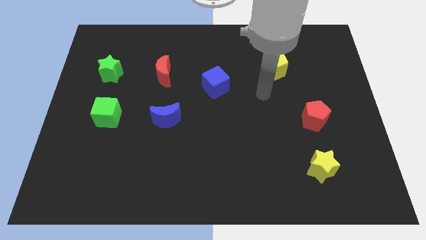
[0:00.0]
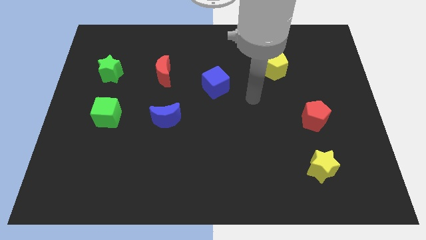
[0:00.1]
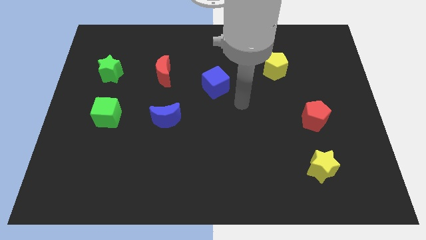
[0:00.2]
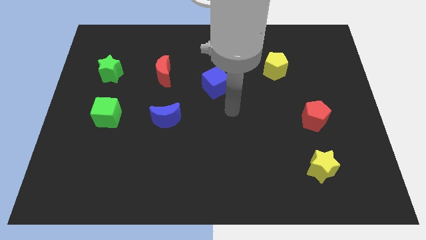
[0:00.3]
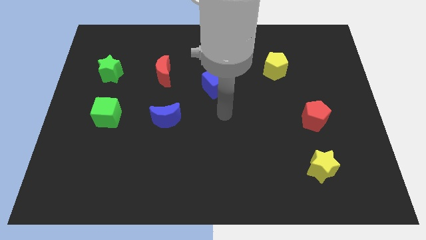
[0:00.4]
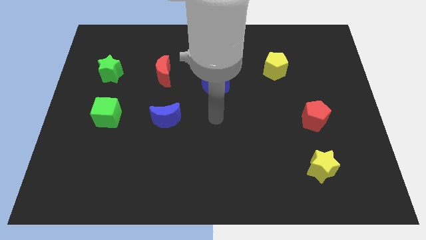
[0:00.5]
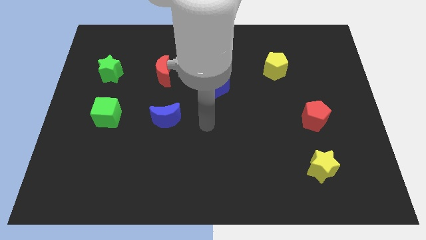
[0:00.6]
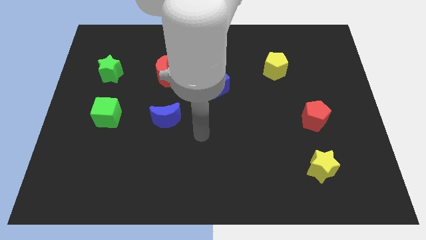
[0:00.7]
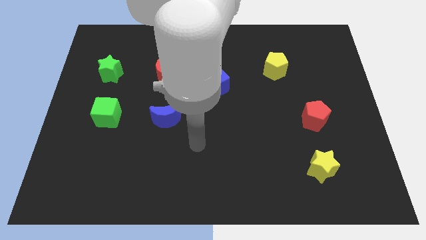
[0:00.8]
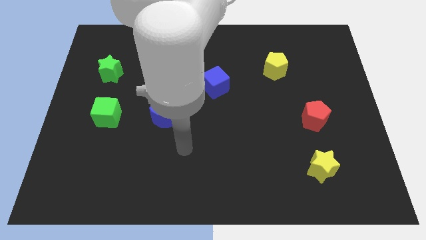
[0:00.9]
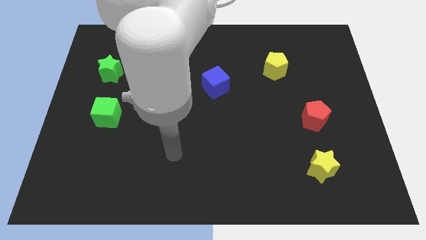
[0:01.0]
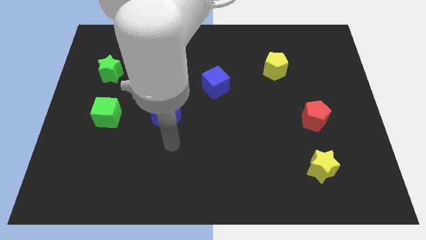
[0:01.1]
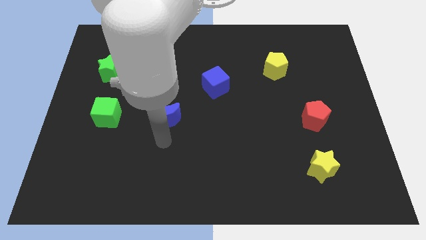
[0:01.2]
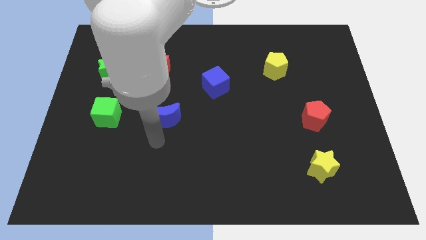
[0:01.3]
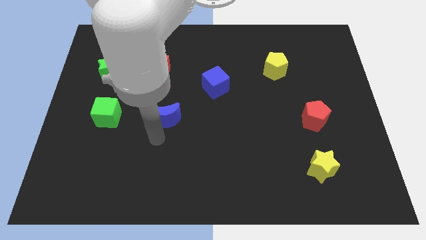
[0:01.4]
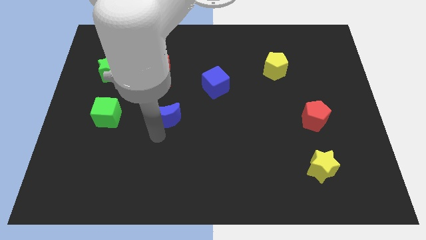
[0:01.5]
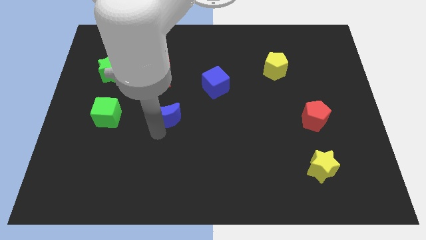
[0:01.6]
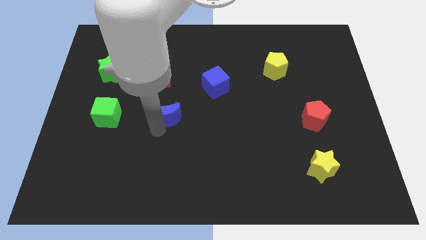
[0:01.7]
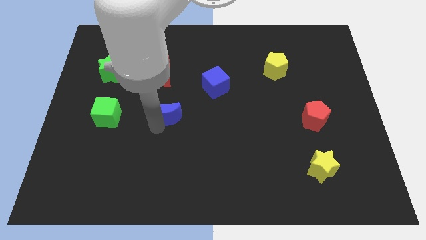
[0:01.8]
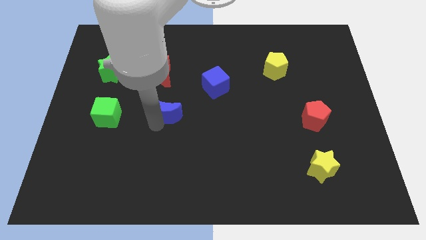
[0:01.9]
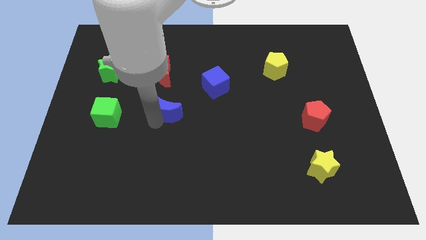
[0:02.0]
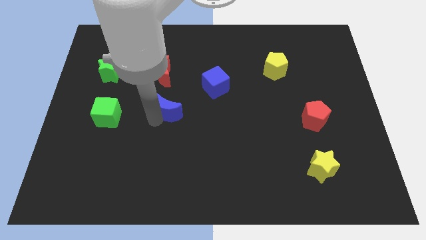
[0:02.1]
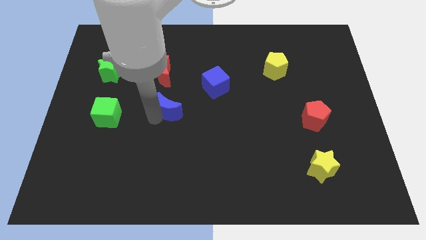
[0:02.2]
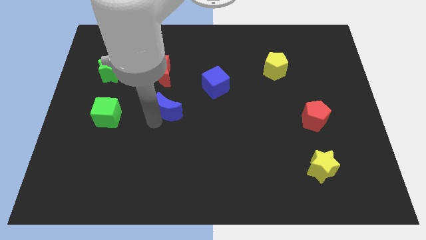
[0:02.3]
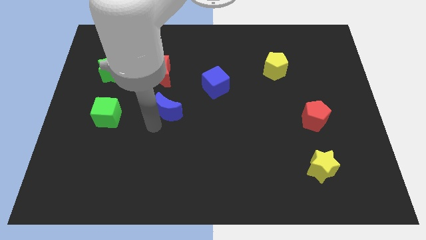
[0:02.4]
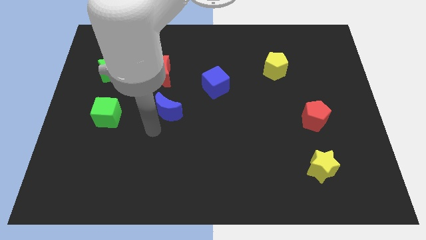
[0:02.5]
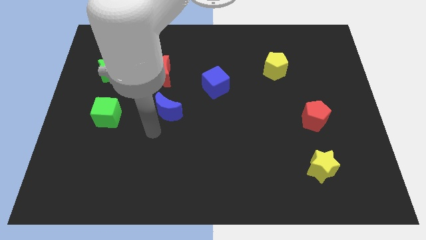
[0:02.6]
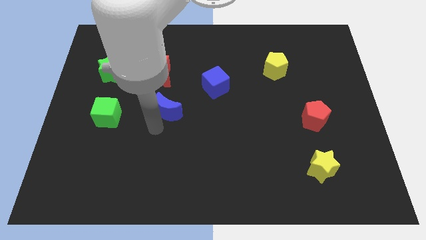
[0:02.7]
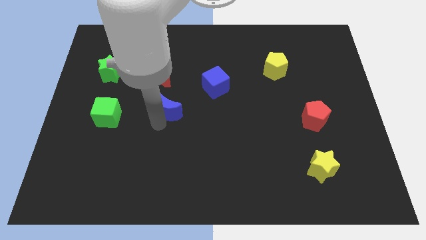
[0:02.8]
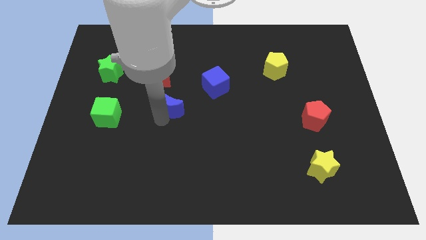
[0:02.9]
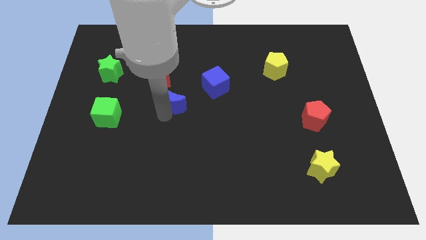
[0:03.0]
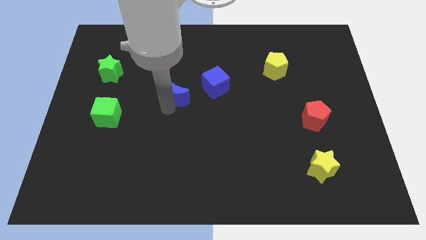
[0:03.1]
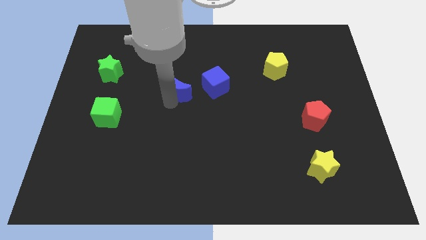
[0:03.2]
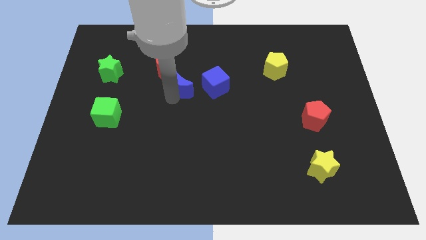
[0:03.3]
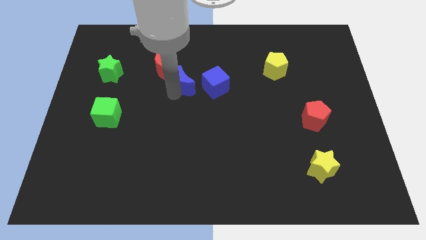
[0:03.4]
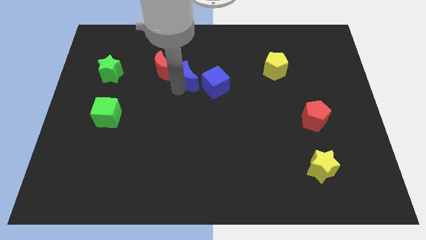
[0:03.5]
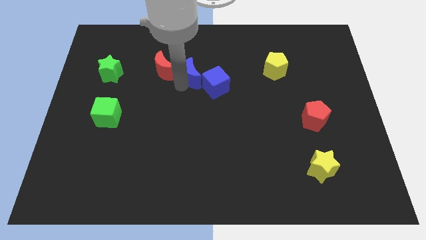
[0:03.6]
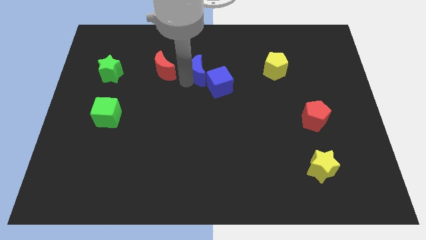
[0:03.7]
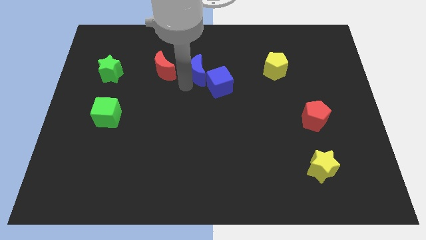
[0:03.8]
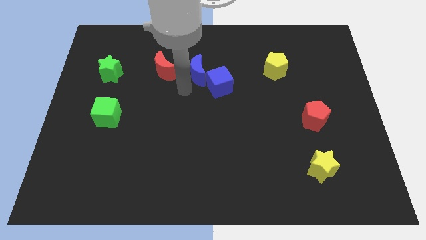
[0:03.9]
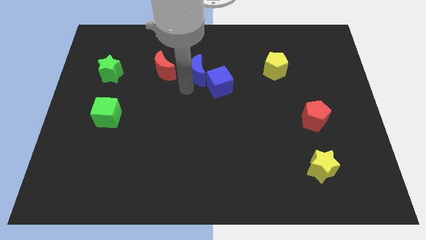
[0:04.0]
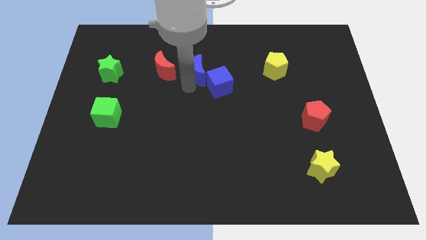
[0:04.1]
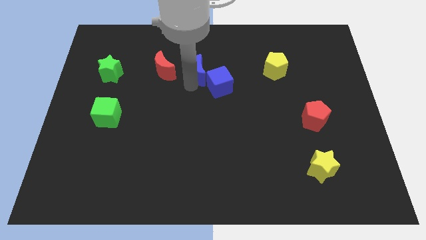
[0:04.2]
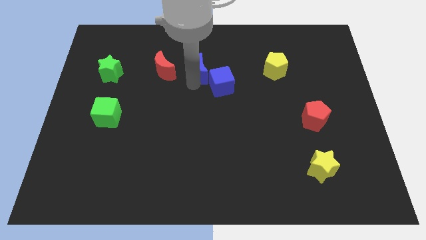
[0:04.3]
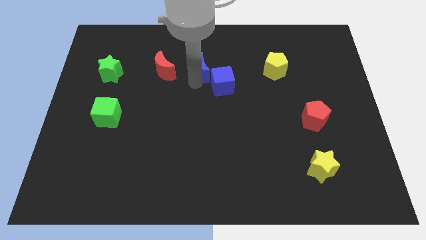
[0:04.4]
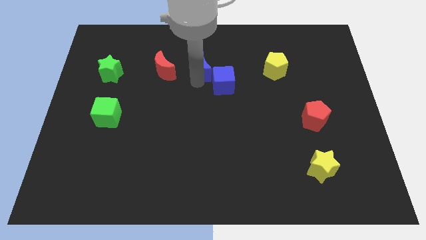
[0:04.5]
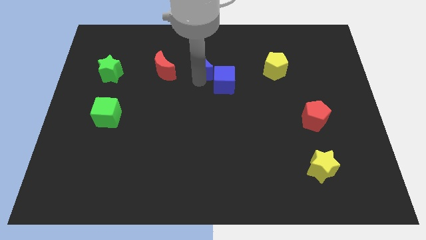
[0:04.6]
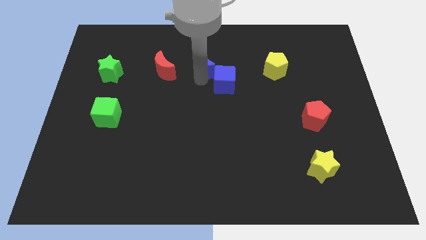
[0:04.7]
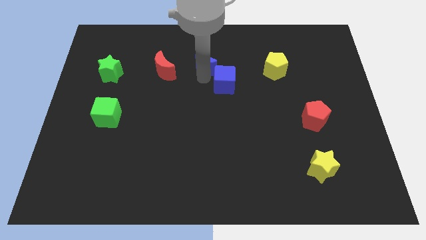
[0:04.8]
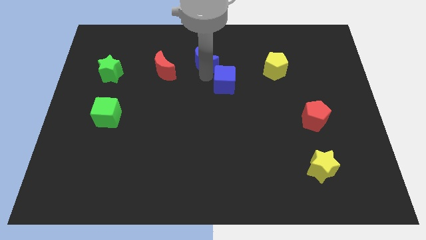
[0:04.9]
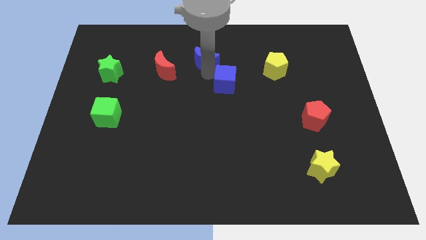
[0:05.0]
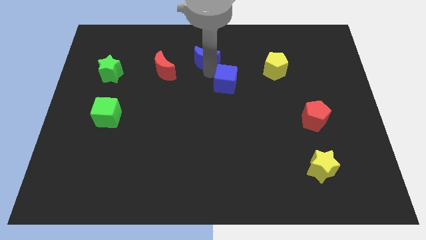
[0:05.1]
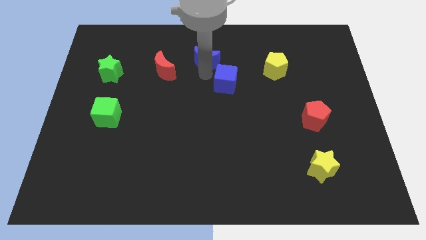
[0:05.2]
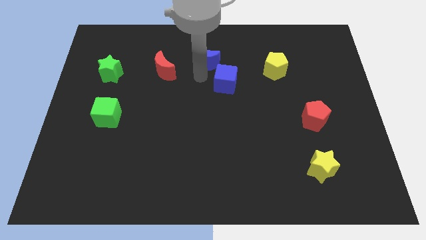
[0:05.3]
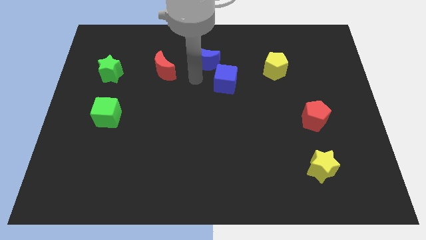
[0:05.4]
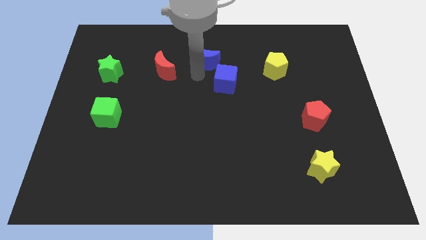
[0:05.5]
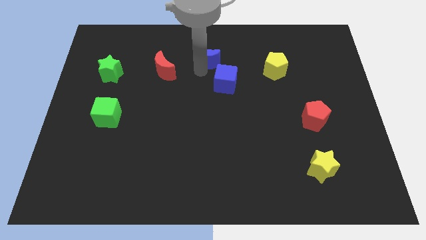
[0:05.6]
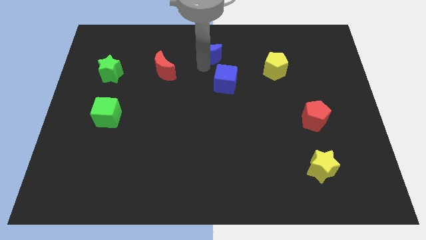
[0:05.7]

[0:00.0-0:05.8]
slide the blue moon to the towards your base

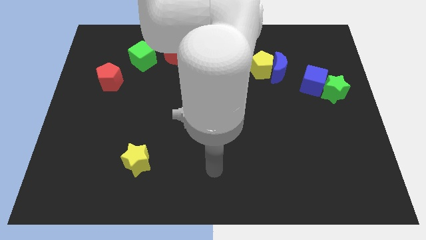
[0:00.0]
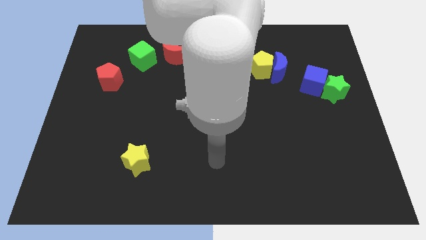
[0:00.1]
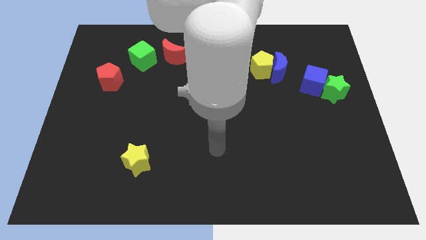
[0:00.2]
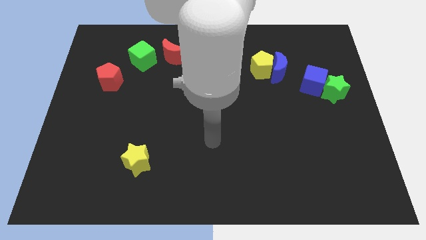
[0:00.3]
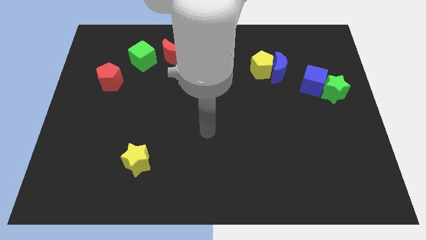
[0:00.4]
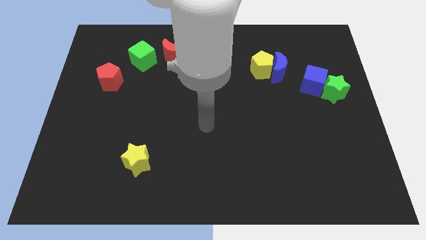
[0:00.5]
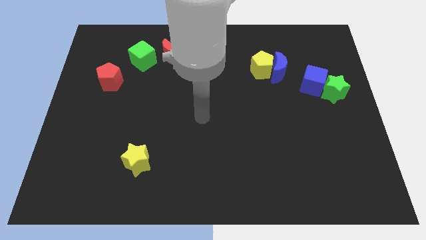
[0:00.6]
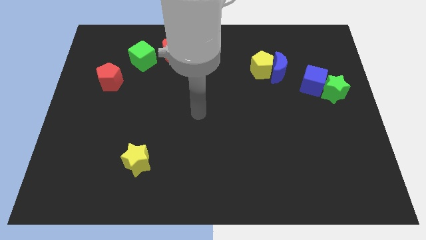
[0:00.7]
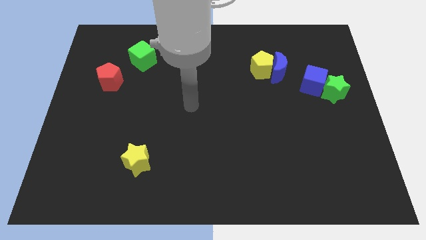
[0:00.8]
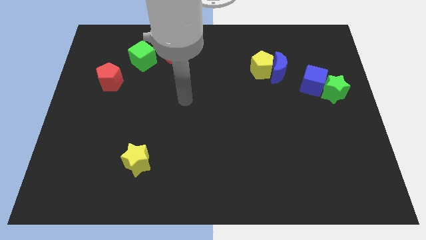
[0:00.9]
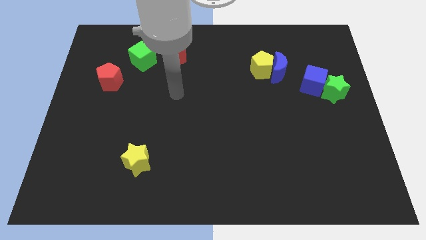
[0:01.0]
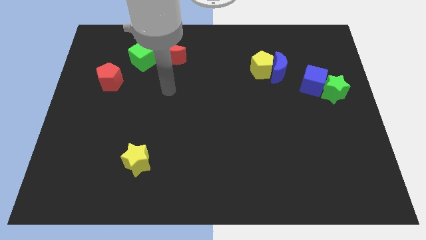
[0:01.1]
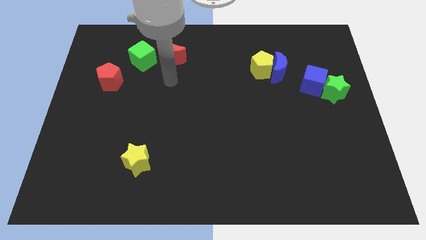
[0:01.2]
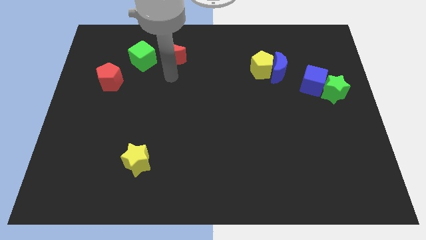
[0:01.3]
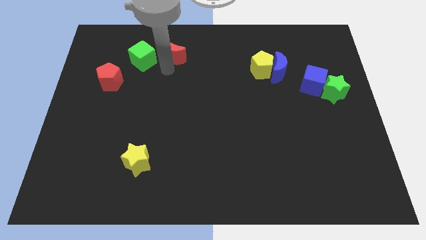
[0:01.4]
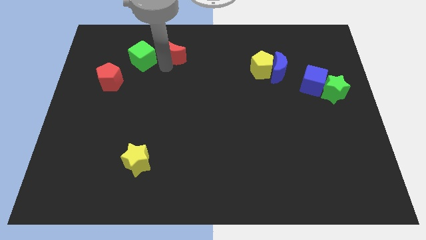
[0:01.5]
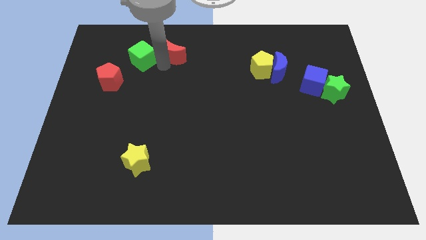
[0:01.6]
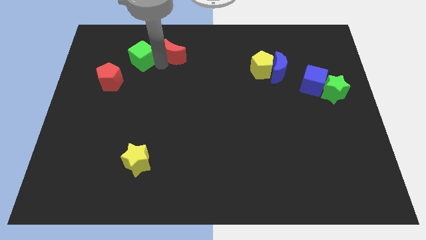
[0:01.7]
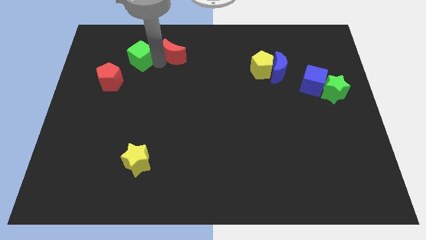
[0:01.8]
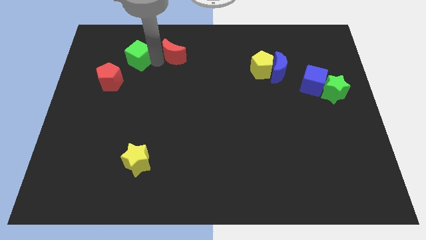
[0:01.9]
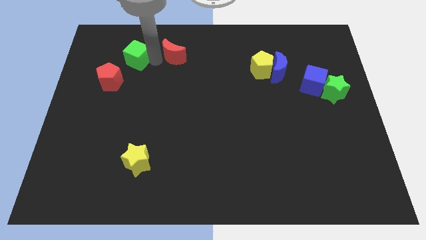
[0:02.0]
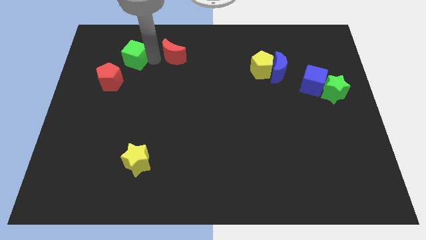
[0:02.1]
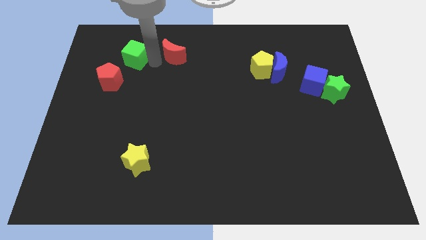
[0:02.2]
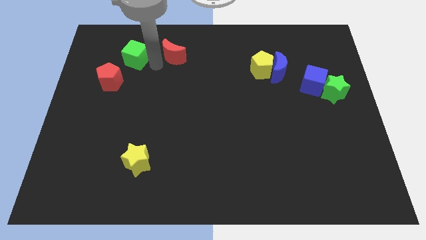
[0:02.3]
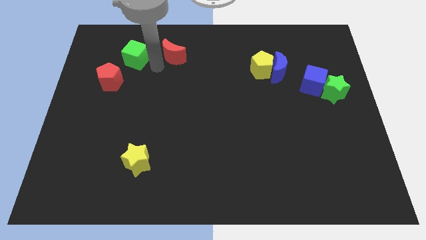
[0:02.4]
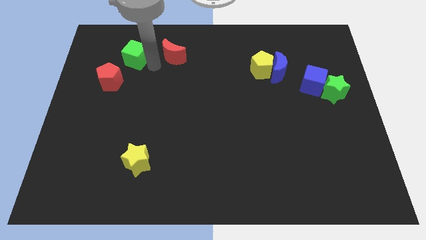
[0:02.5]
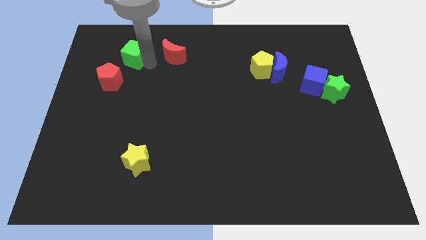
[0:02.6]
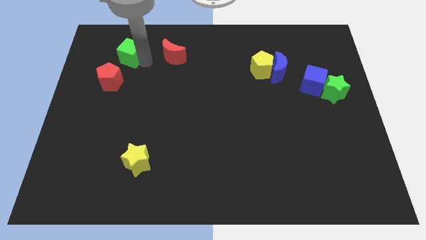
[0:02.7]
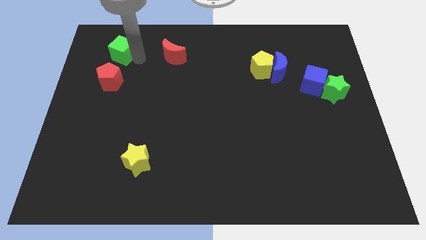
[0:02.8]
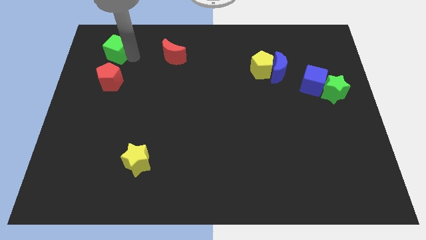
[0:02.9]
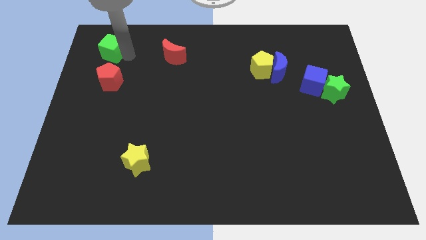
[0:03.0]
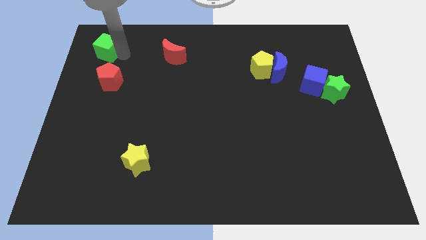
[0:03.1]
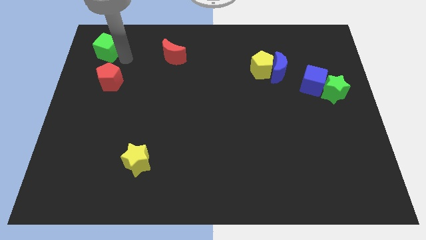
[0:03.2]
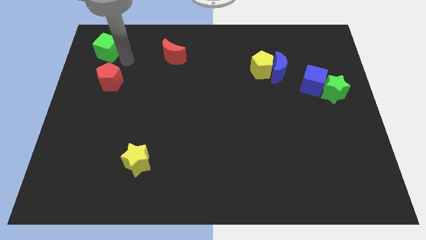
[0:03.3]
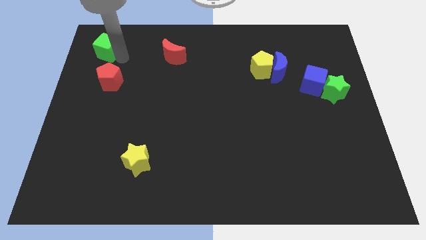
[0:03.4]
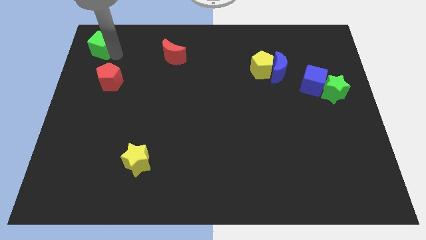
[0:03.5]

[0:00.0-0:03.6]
move the green cube to the upper left corner
